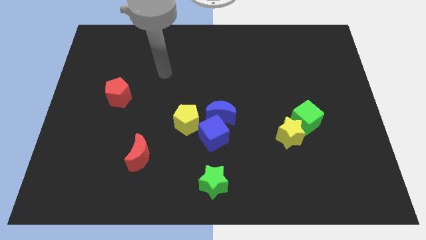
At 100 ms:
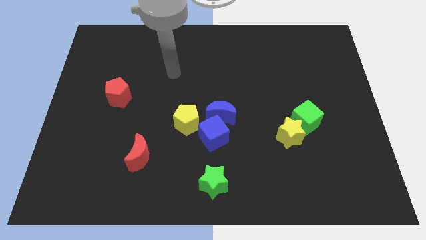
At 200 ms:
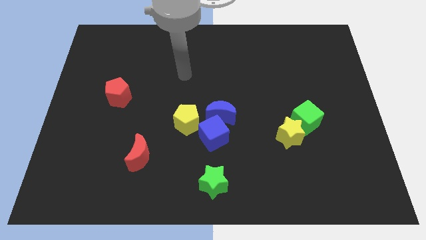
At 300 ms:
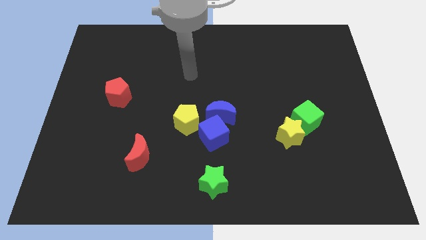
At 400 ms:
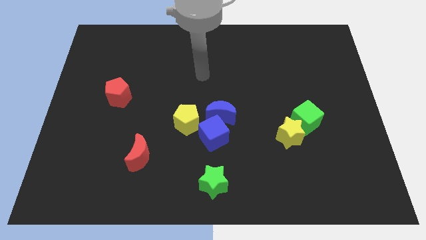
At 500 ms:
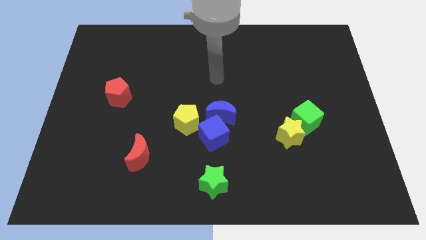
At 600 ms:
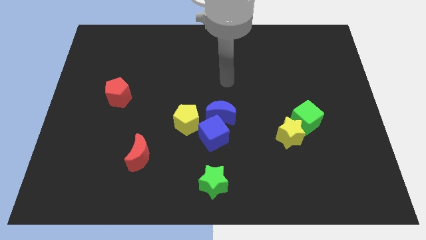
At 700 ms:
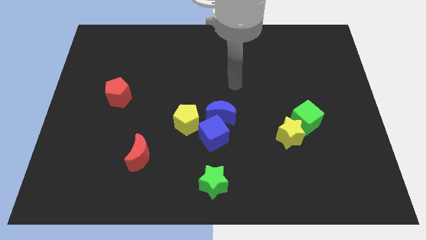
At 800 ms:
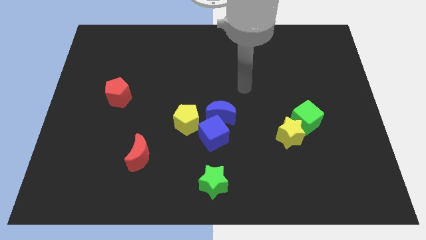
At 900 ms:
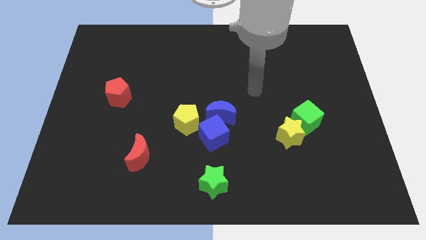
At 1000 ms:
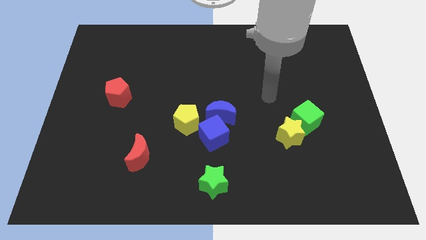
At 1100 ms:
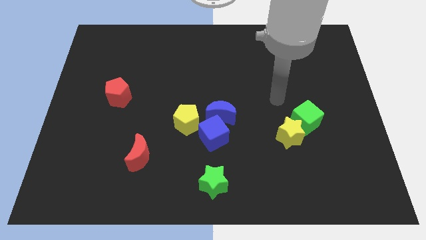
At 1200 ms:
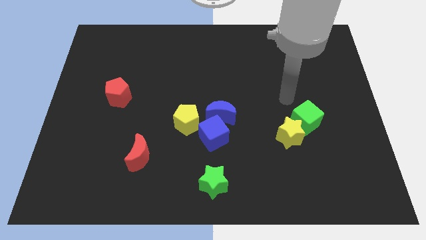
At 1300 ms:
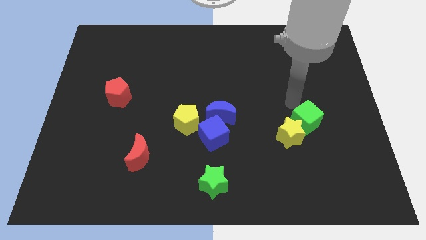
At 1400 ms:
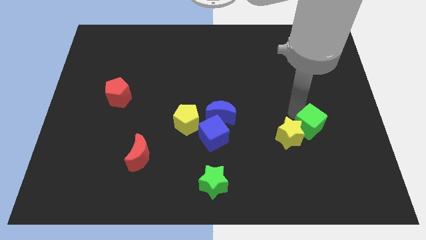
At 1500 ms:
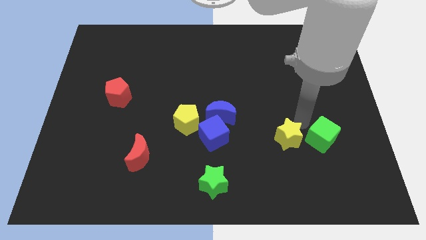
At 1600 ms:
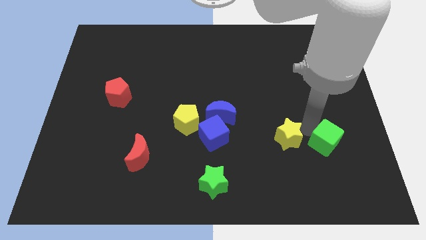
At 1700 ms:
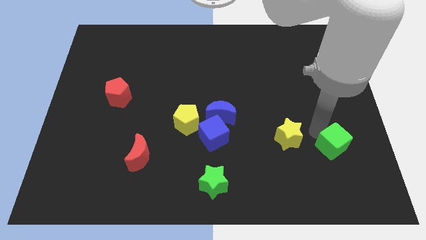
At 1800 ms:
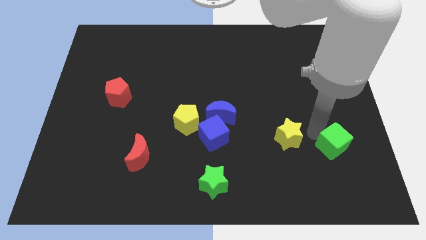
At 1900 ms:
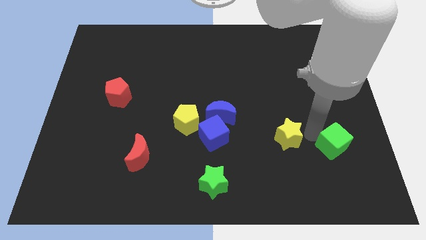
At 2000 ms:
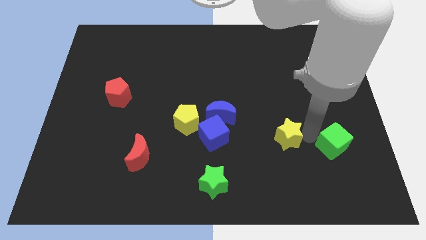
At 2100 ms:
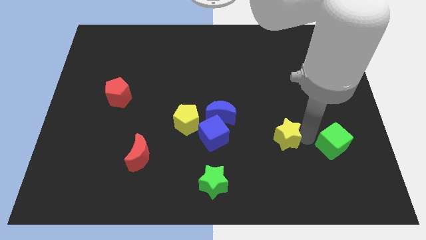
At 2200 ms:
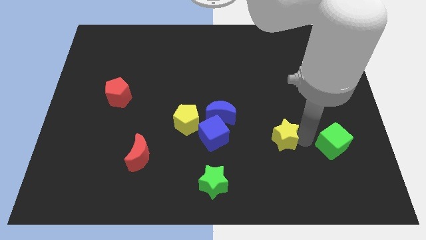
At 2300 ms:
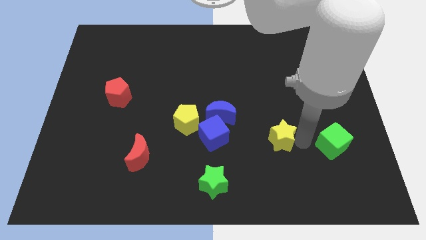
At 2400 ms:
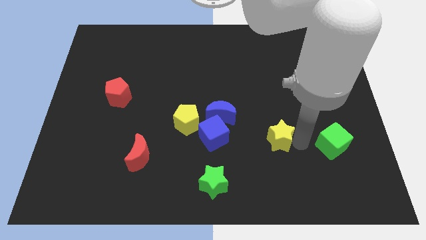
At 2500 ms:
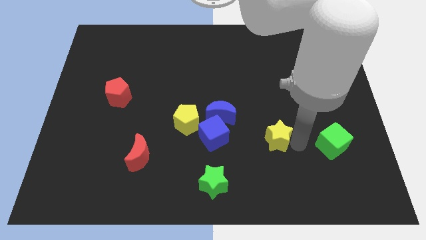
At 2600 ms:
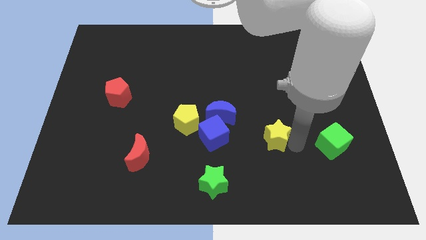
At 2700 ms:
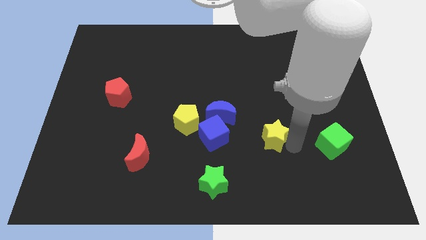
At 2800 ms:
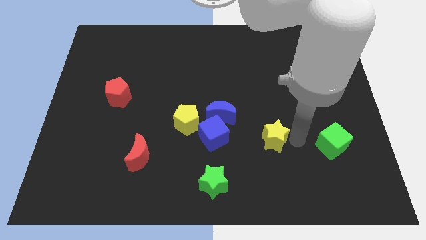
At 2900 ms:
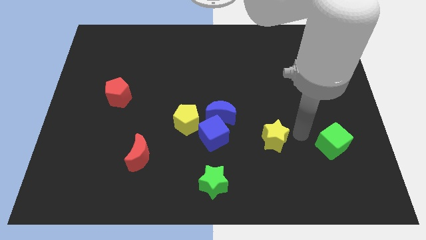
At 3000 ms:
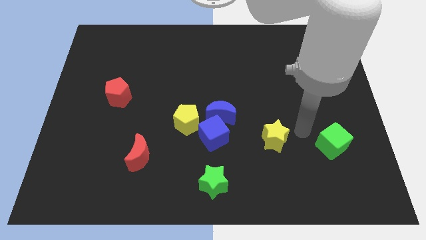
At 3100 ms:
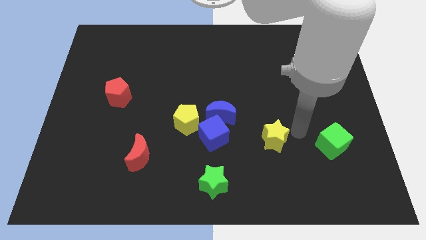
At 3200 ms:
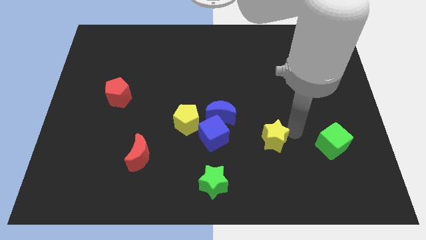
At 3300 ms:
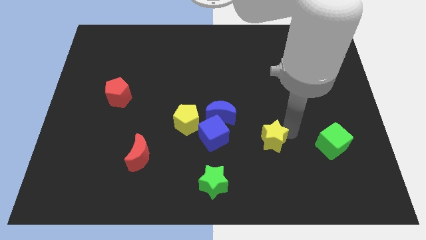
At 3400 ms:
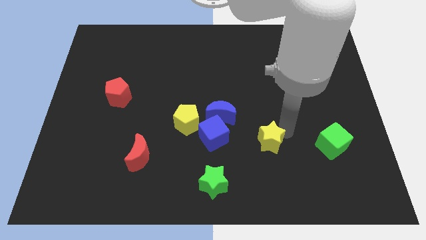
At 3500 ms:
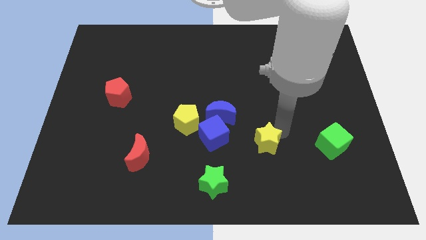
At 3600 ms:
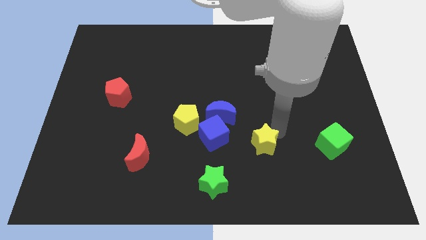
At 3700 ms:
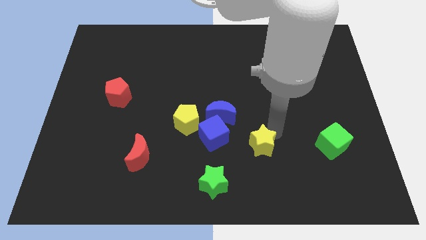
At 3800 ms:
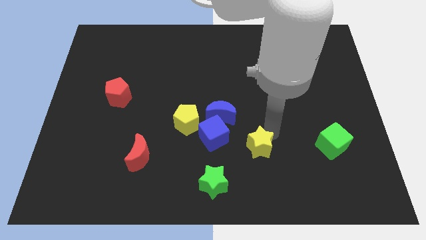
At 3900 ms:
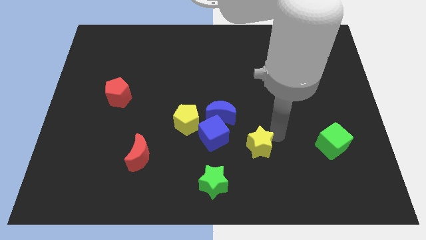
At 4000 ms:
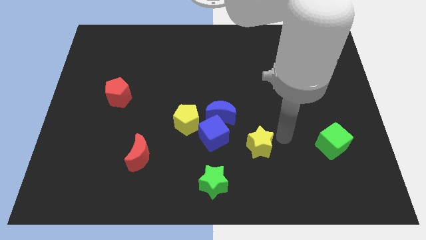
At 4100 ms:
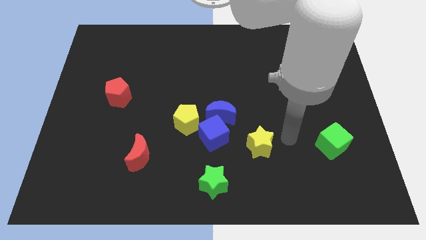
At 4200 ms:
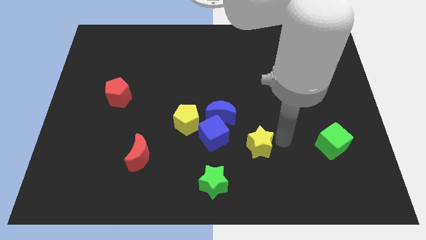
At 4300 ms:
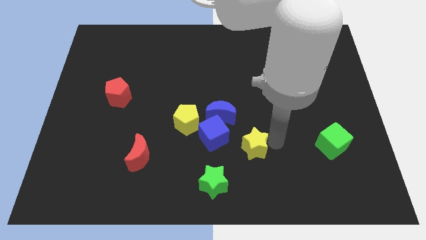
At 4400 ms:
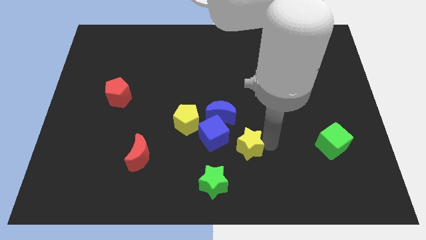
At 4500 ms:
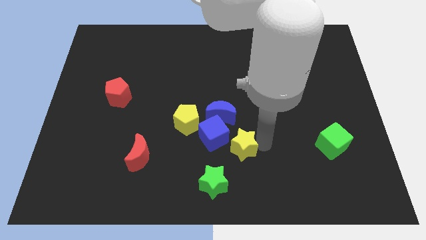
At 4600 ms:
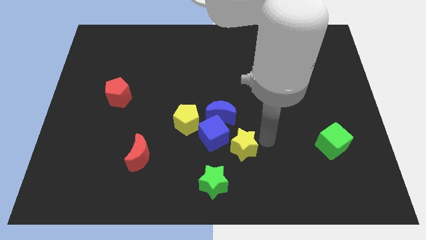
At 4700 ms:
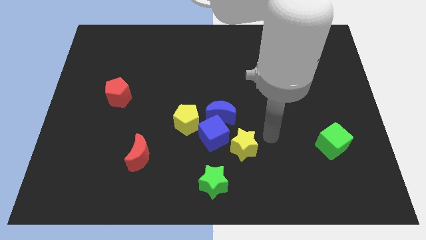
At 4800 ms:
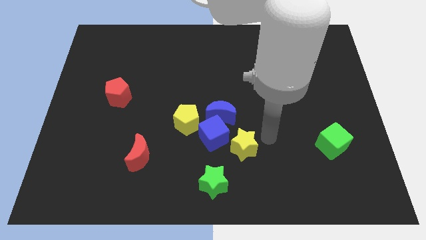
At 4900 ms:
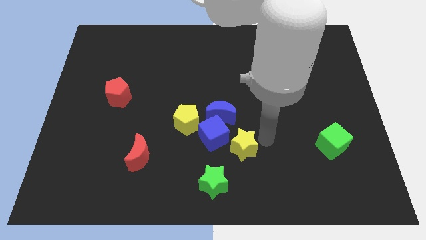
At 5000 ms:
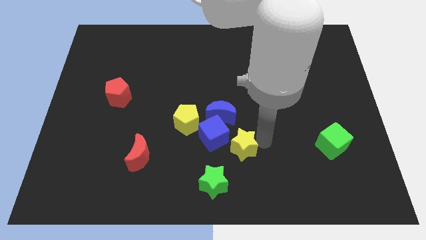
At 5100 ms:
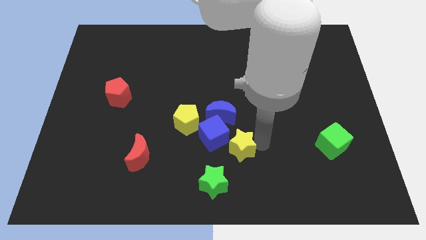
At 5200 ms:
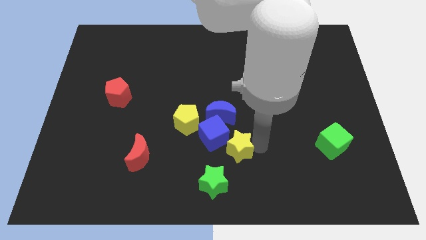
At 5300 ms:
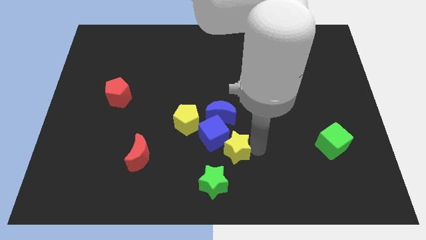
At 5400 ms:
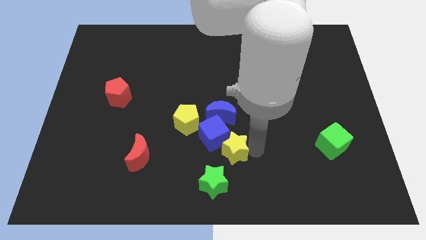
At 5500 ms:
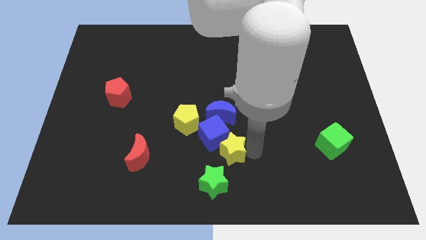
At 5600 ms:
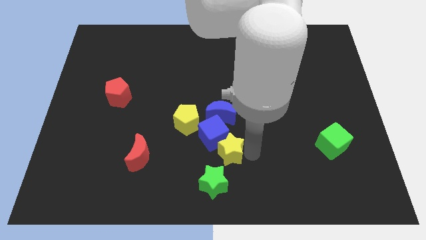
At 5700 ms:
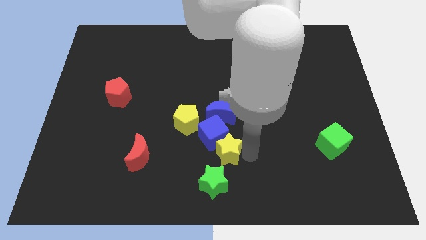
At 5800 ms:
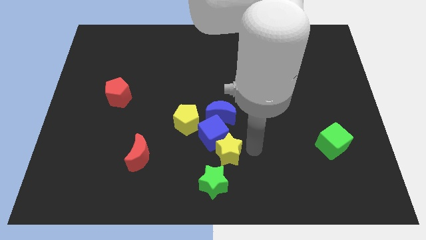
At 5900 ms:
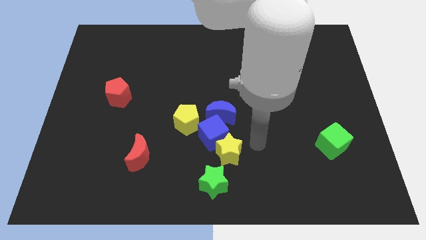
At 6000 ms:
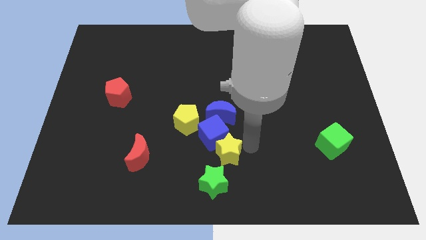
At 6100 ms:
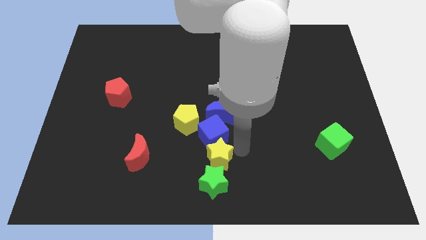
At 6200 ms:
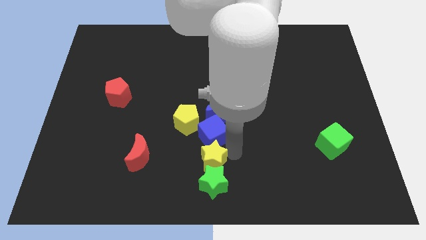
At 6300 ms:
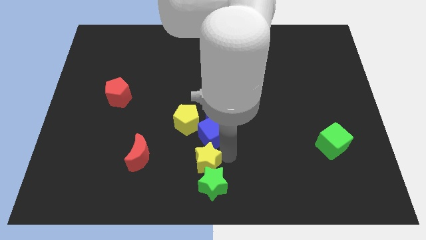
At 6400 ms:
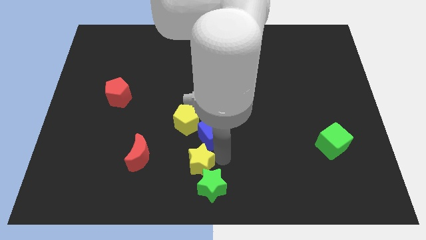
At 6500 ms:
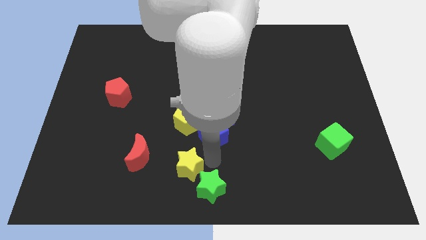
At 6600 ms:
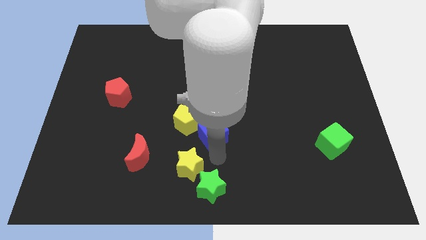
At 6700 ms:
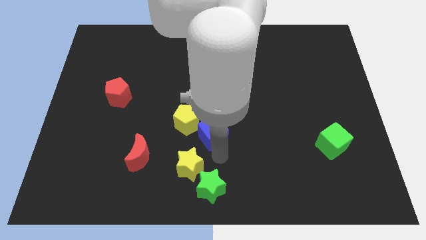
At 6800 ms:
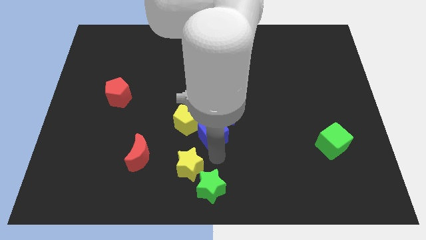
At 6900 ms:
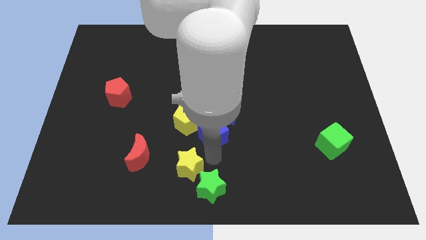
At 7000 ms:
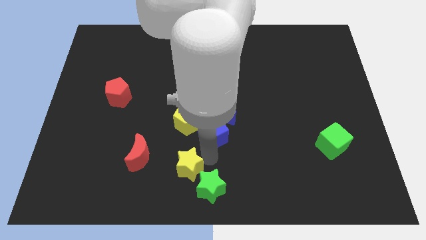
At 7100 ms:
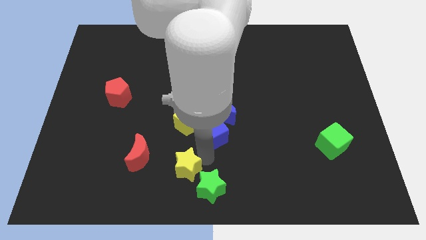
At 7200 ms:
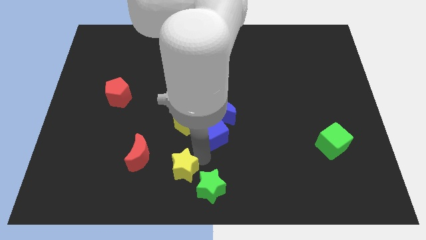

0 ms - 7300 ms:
move the yellow star to the bottom right of the red moon

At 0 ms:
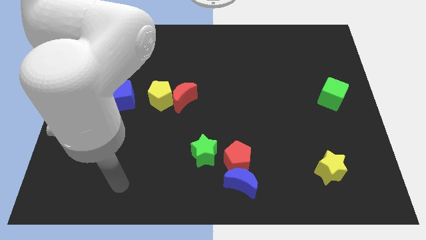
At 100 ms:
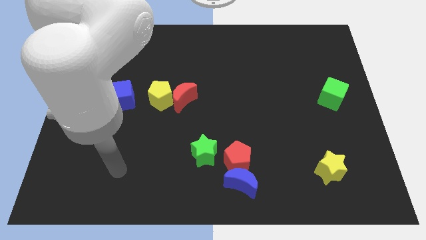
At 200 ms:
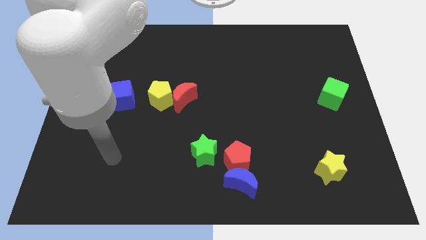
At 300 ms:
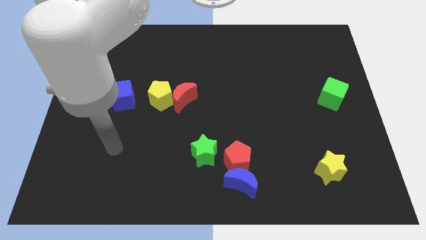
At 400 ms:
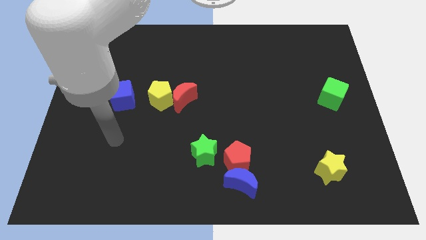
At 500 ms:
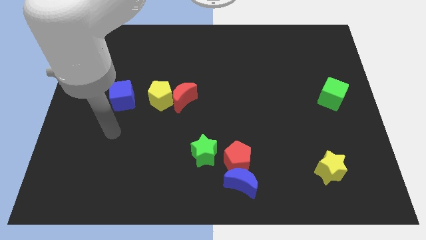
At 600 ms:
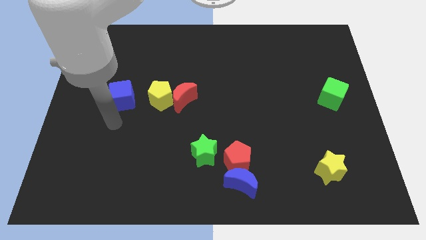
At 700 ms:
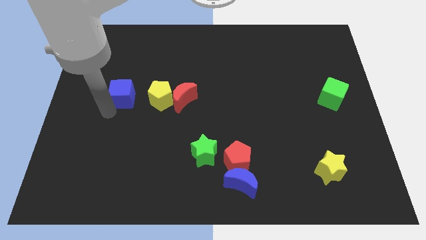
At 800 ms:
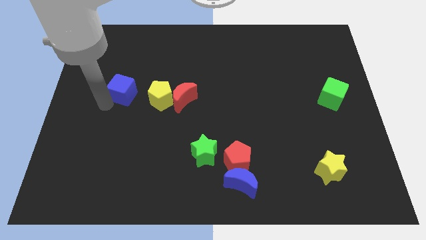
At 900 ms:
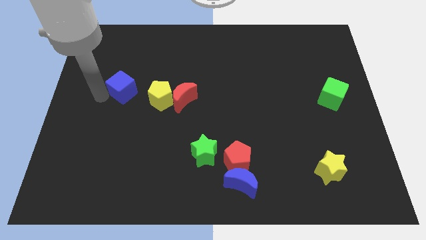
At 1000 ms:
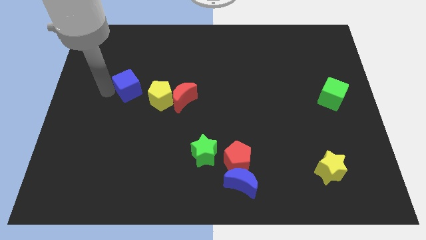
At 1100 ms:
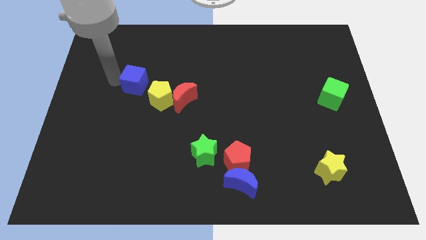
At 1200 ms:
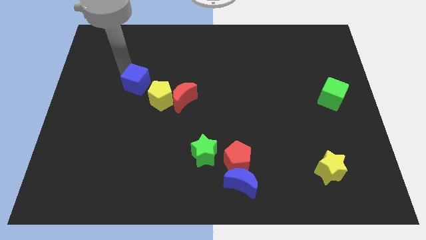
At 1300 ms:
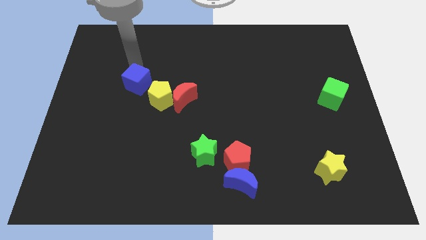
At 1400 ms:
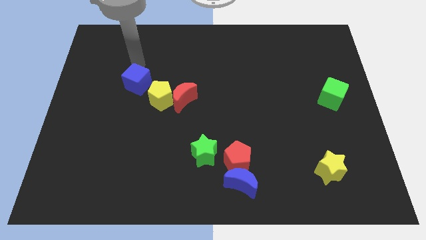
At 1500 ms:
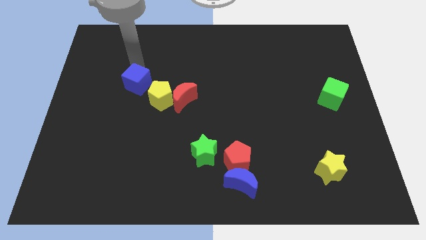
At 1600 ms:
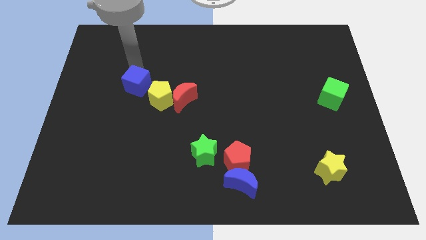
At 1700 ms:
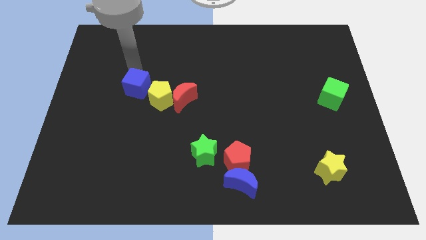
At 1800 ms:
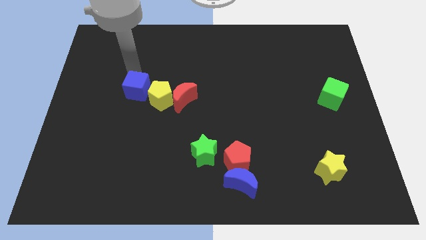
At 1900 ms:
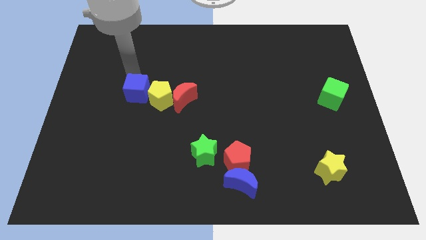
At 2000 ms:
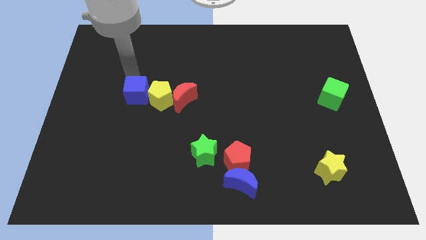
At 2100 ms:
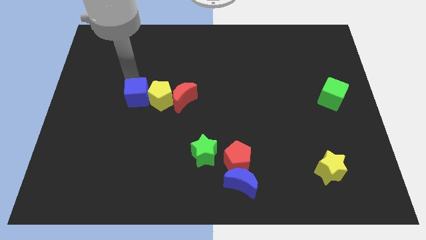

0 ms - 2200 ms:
push the blue cube to the bottom left of the yellow pentagon
